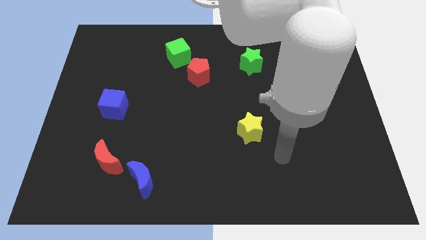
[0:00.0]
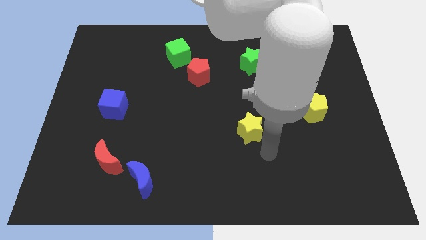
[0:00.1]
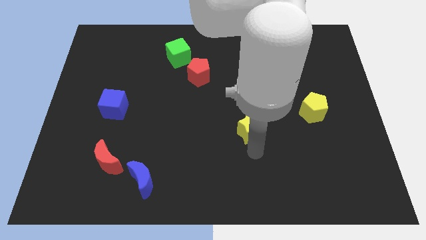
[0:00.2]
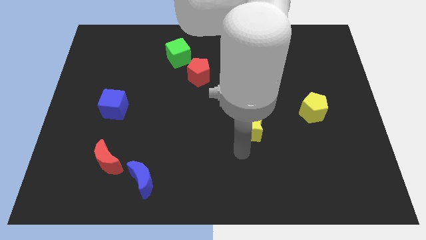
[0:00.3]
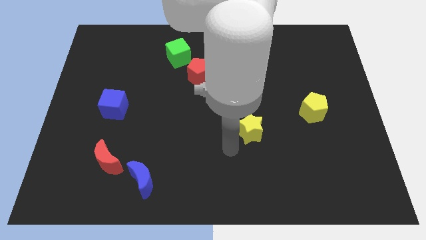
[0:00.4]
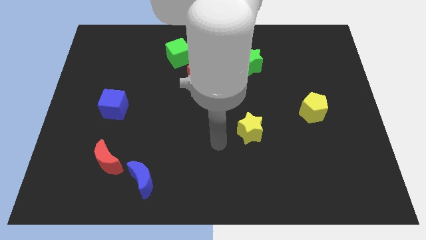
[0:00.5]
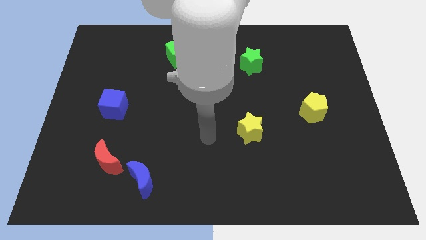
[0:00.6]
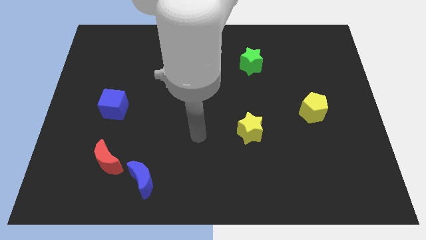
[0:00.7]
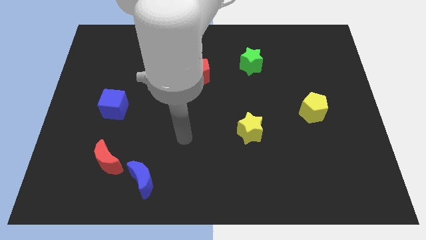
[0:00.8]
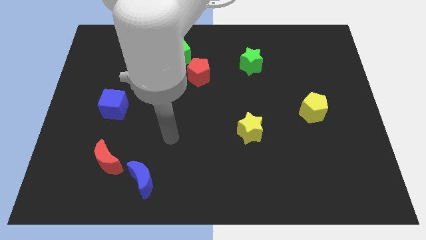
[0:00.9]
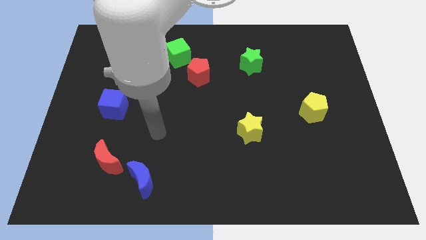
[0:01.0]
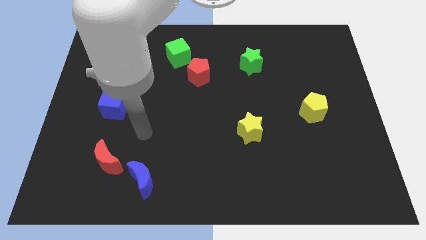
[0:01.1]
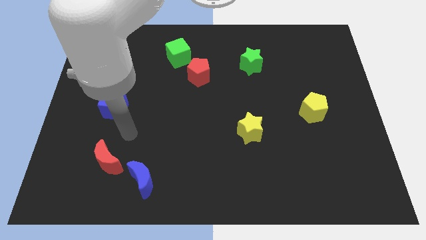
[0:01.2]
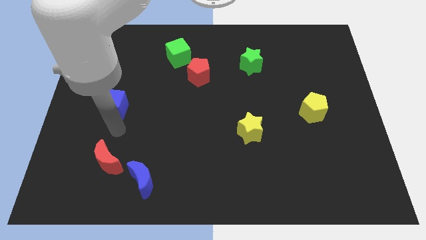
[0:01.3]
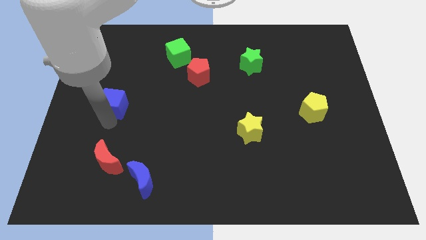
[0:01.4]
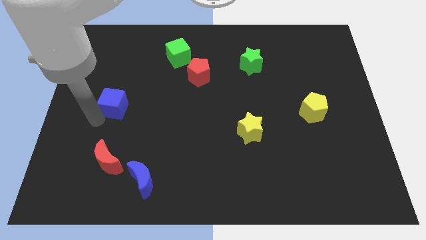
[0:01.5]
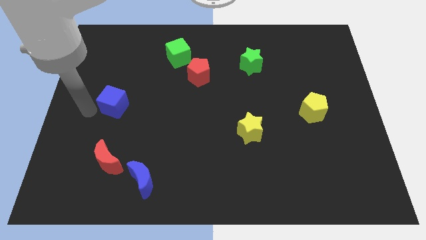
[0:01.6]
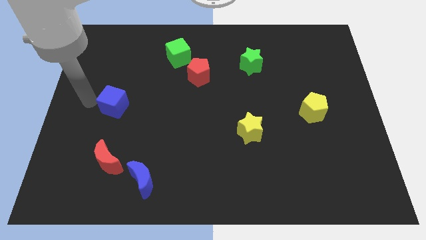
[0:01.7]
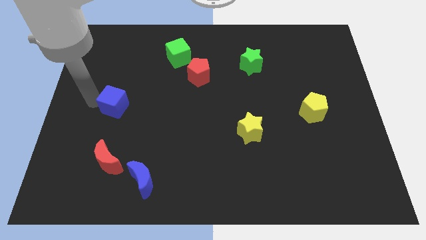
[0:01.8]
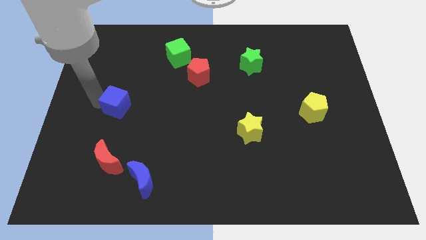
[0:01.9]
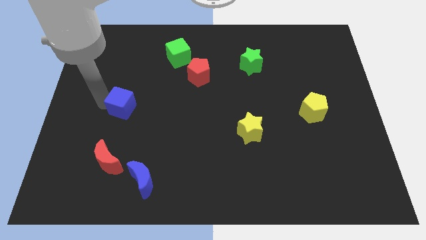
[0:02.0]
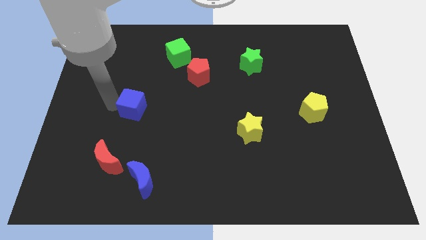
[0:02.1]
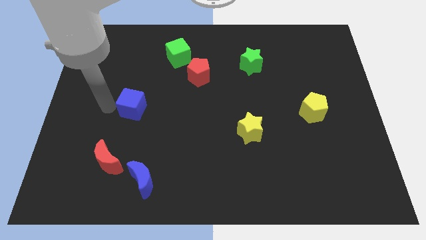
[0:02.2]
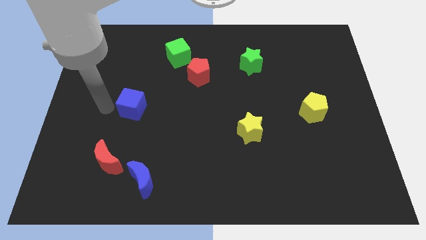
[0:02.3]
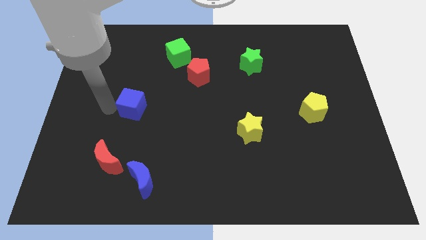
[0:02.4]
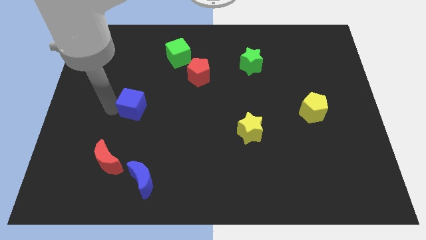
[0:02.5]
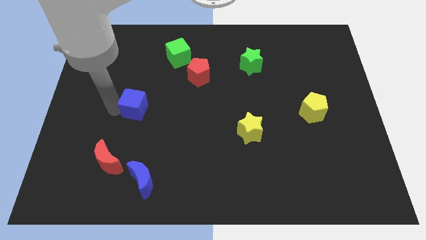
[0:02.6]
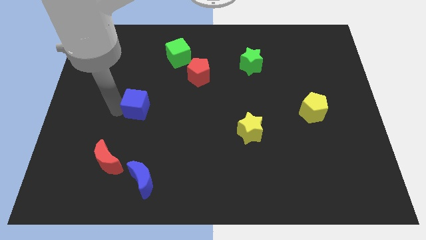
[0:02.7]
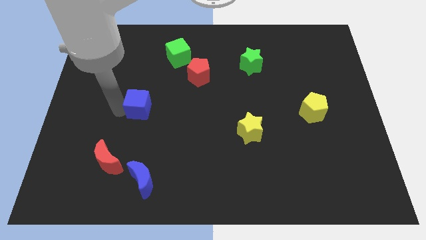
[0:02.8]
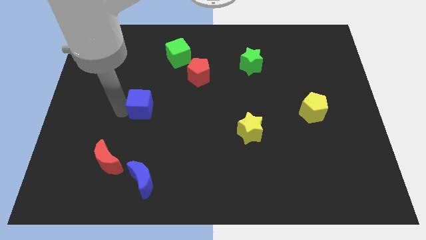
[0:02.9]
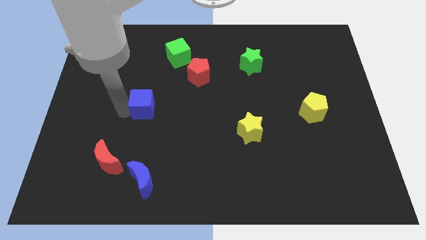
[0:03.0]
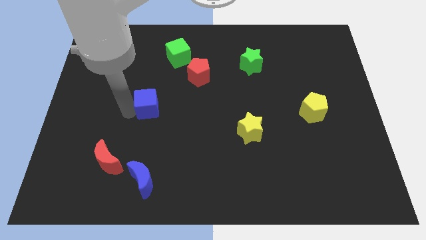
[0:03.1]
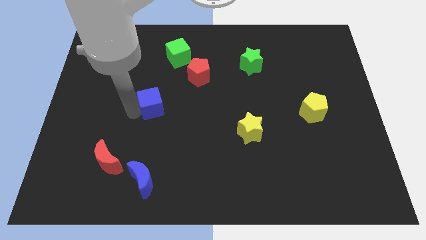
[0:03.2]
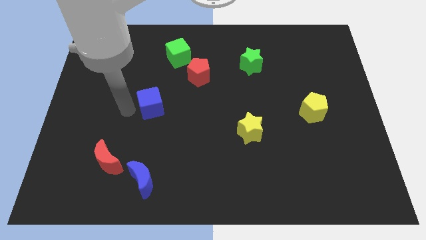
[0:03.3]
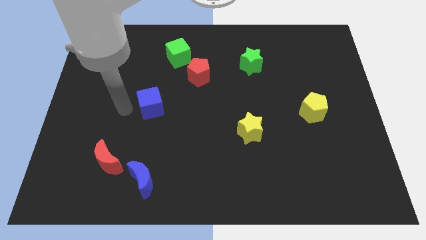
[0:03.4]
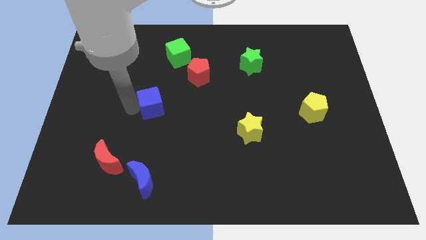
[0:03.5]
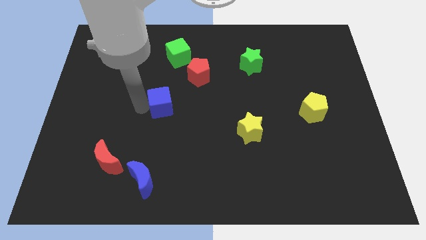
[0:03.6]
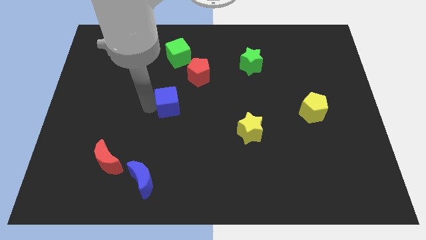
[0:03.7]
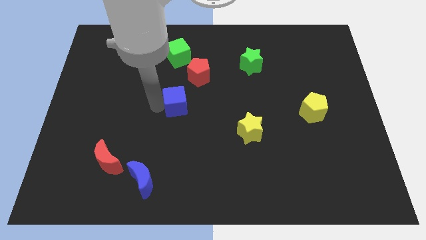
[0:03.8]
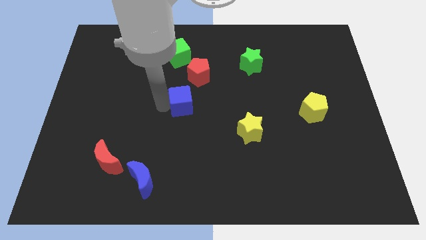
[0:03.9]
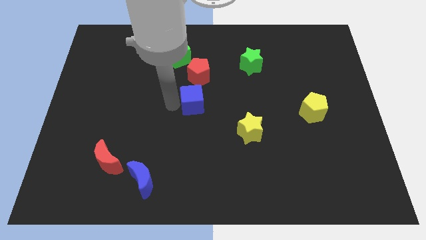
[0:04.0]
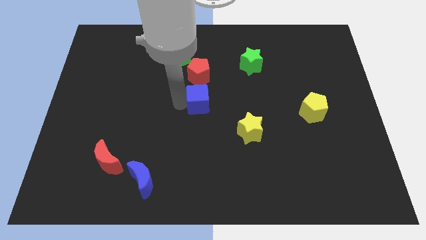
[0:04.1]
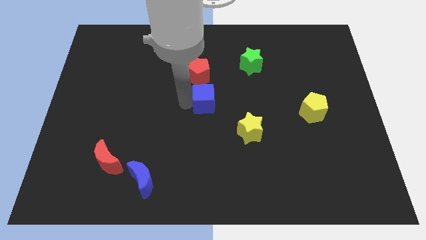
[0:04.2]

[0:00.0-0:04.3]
move the blue cube to the right

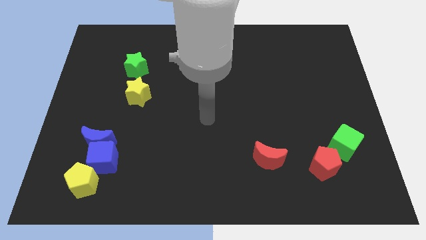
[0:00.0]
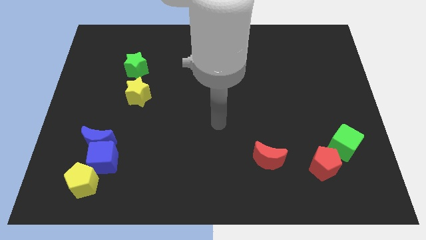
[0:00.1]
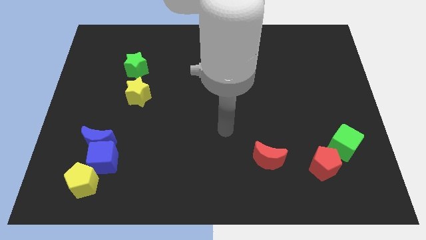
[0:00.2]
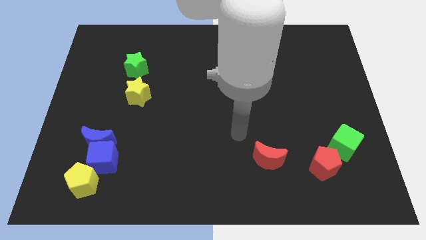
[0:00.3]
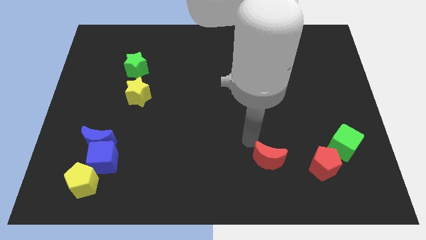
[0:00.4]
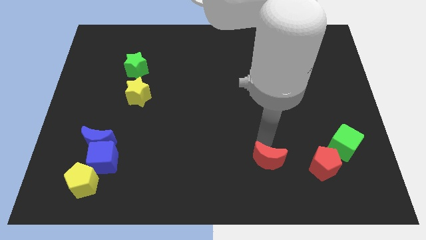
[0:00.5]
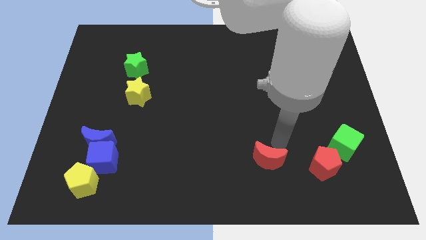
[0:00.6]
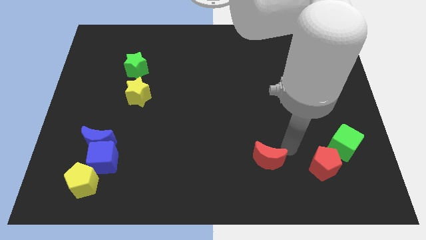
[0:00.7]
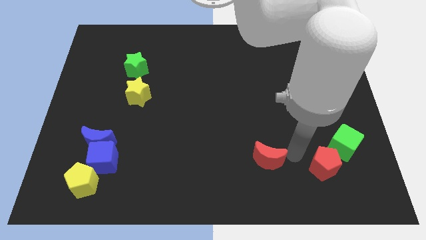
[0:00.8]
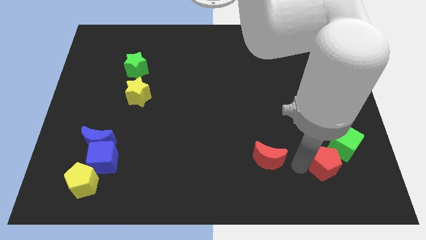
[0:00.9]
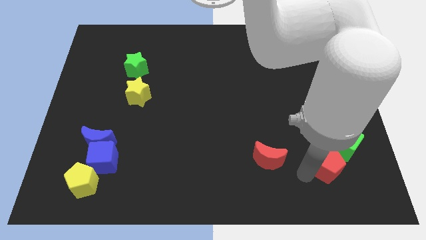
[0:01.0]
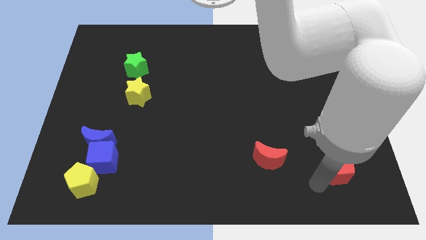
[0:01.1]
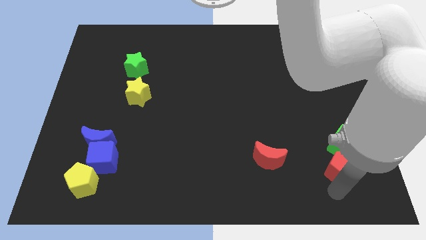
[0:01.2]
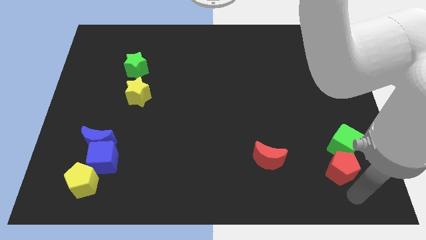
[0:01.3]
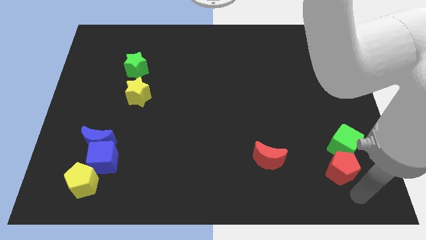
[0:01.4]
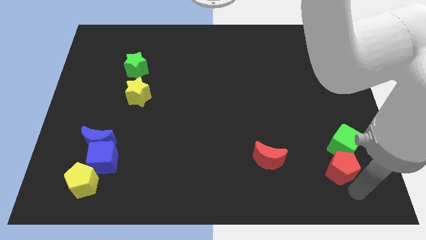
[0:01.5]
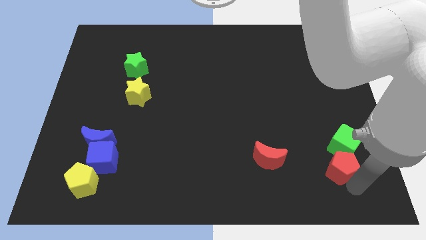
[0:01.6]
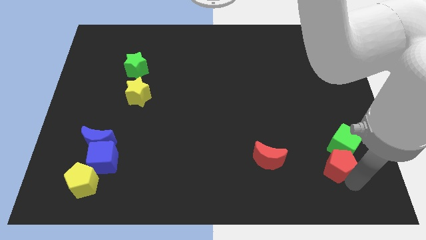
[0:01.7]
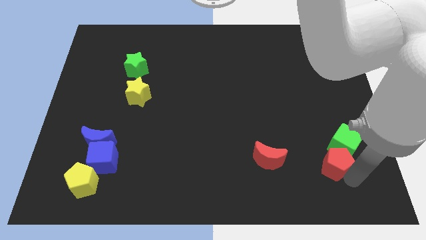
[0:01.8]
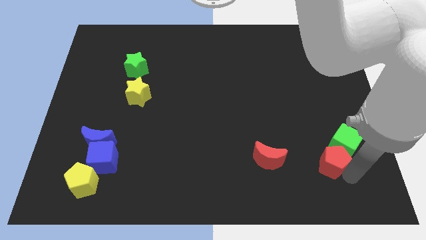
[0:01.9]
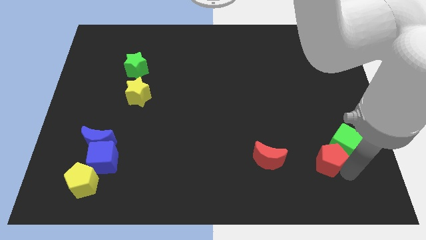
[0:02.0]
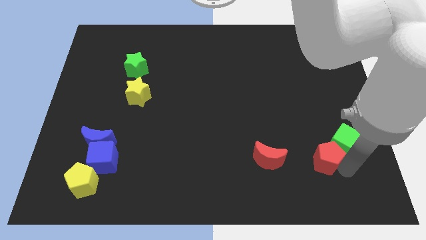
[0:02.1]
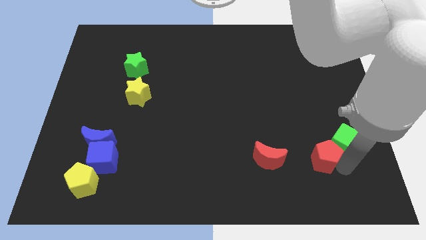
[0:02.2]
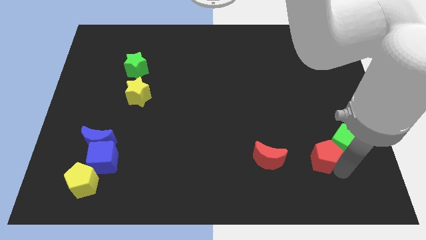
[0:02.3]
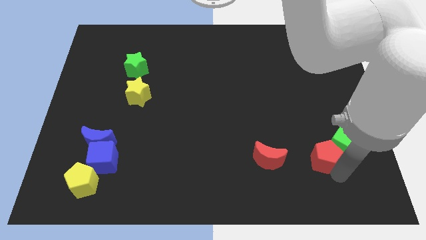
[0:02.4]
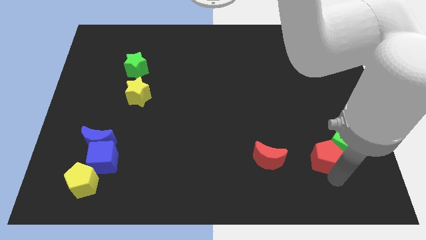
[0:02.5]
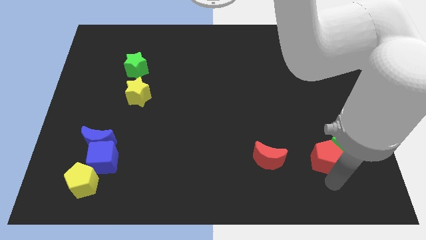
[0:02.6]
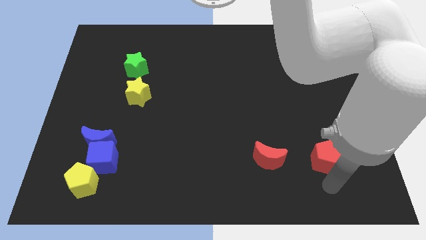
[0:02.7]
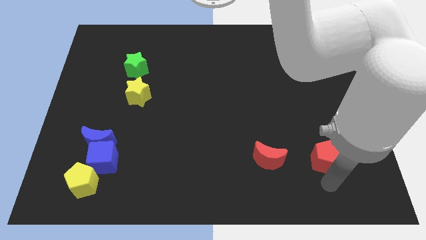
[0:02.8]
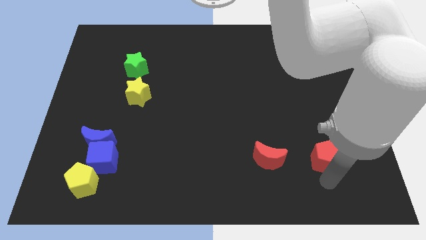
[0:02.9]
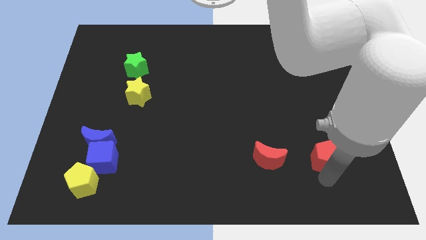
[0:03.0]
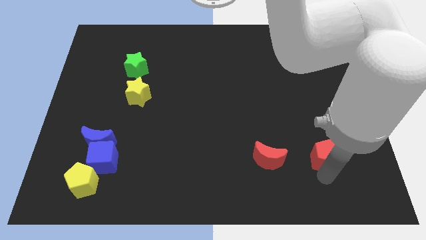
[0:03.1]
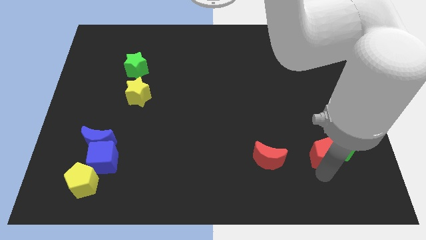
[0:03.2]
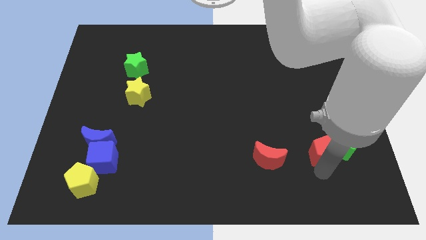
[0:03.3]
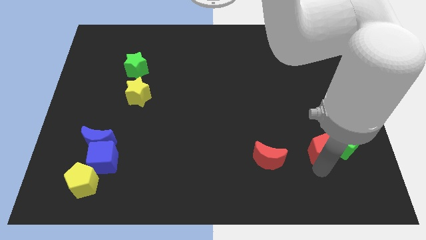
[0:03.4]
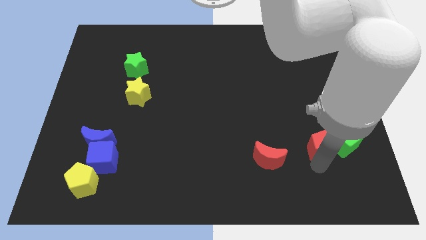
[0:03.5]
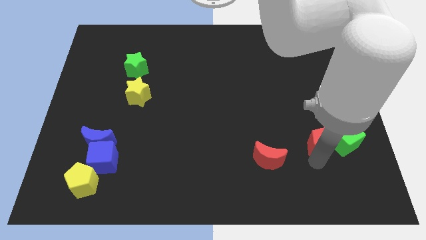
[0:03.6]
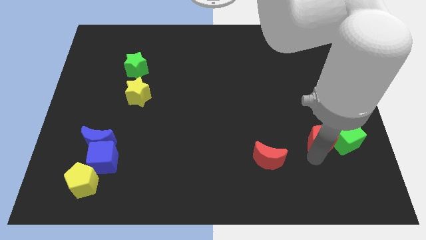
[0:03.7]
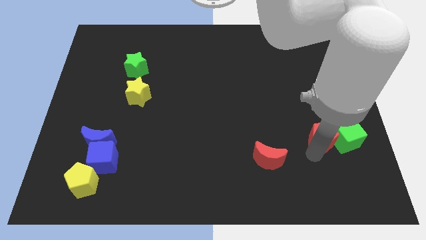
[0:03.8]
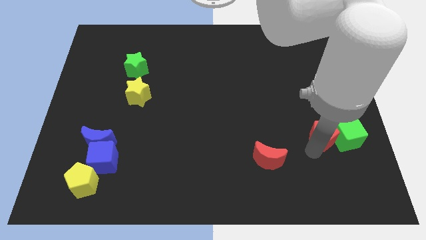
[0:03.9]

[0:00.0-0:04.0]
slide the red pentagon a little upwards
